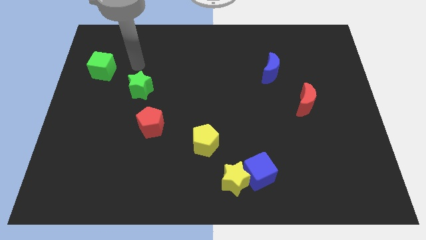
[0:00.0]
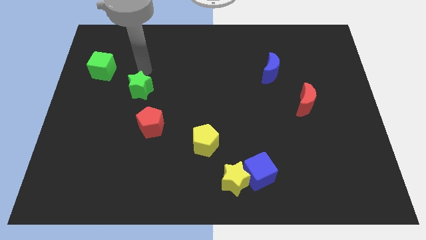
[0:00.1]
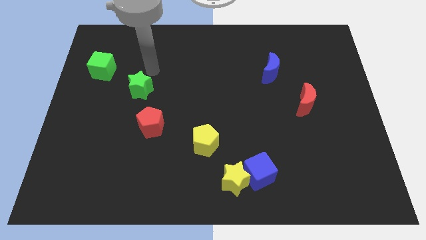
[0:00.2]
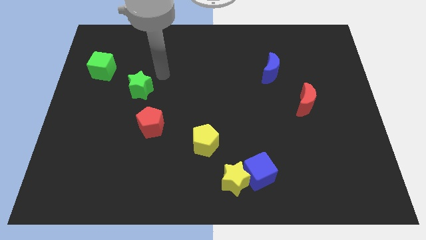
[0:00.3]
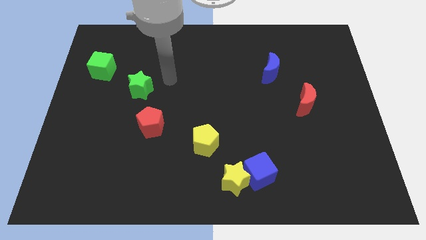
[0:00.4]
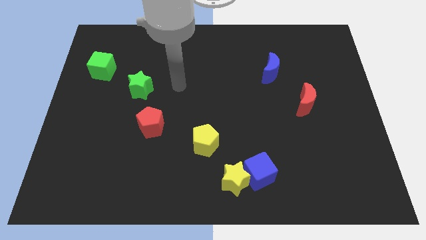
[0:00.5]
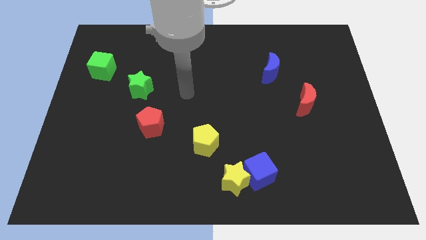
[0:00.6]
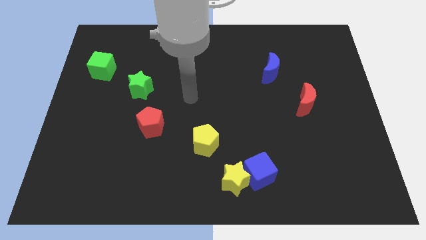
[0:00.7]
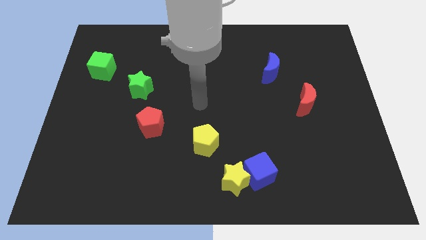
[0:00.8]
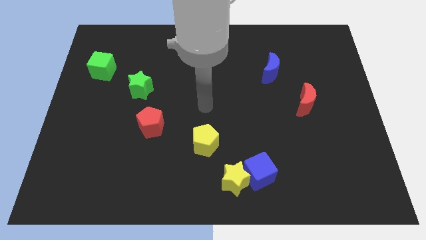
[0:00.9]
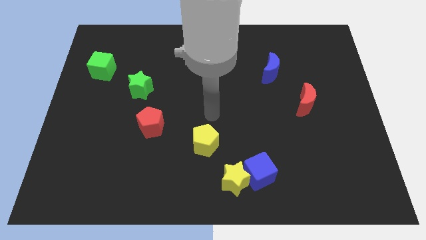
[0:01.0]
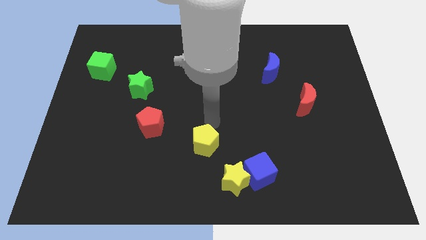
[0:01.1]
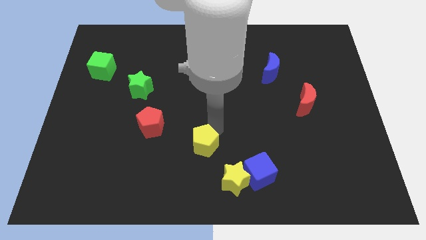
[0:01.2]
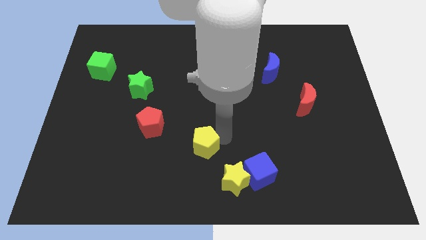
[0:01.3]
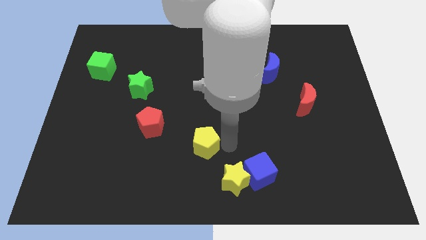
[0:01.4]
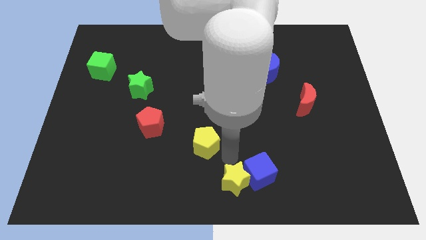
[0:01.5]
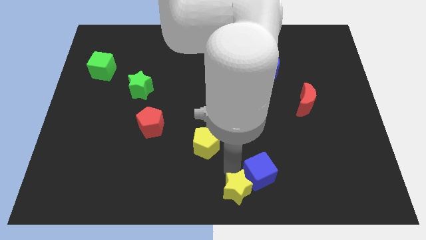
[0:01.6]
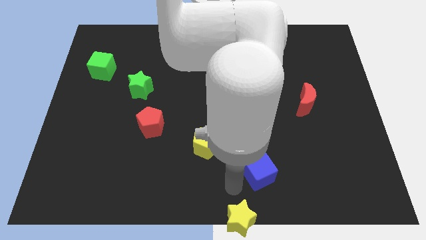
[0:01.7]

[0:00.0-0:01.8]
pull the blue cube apart from the yellow star

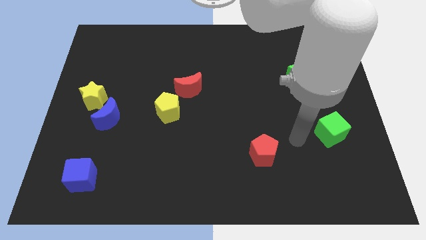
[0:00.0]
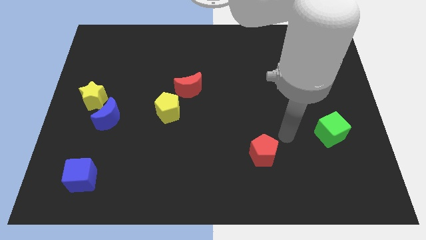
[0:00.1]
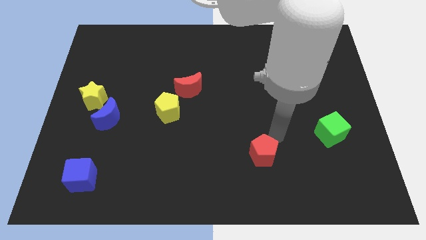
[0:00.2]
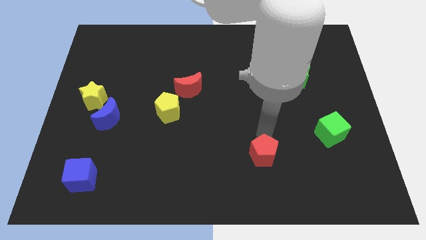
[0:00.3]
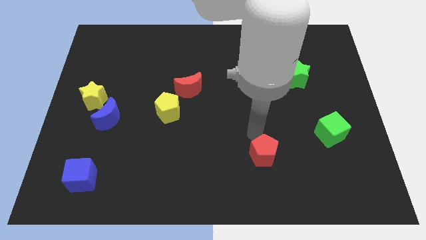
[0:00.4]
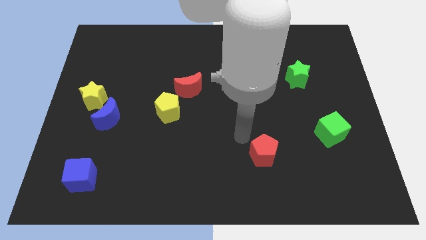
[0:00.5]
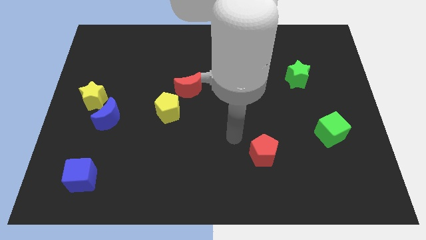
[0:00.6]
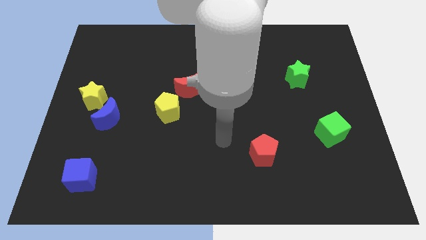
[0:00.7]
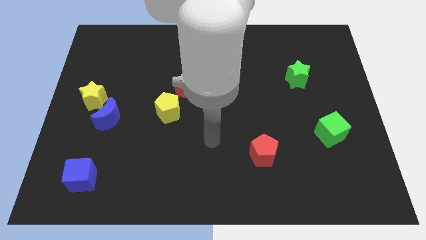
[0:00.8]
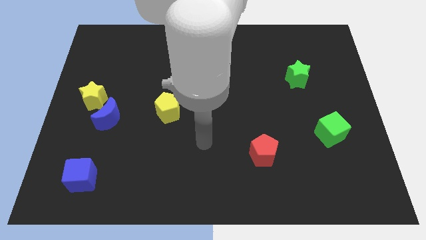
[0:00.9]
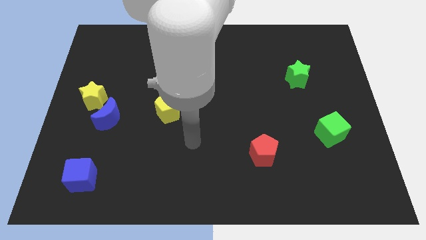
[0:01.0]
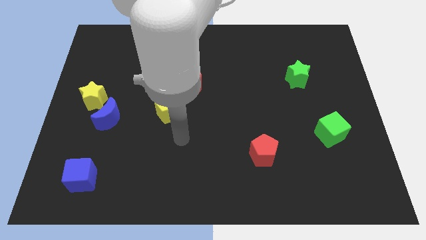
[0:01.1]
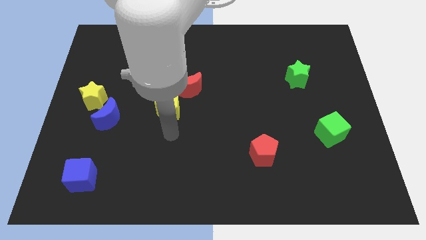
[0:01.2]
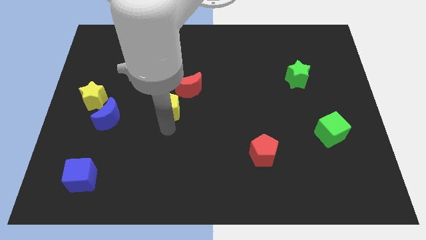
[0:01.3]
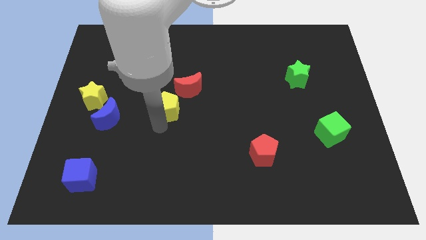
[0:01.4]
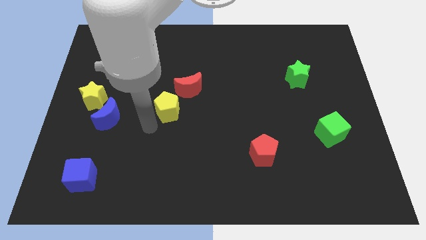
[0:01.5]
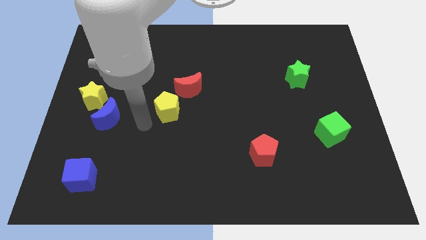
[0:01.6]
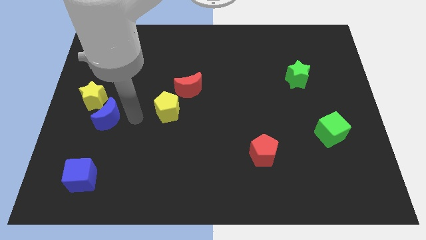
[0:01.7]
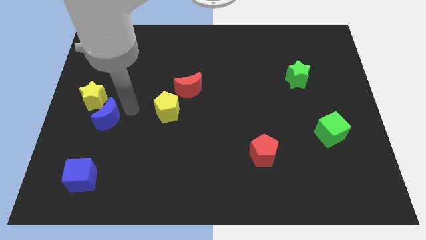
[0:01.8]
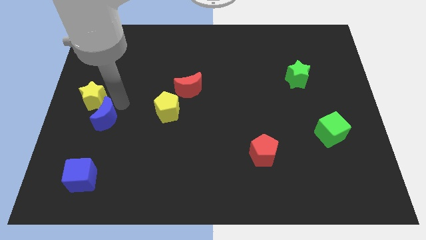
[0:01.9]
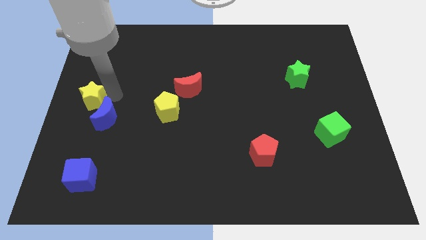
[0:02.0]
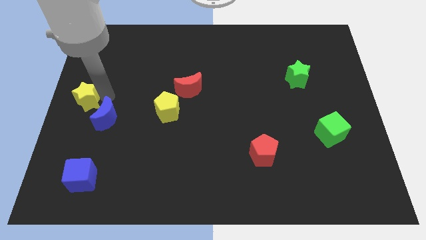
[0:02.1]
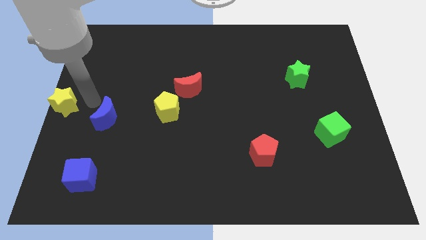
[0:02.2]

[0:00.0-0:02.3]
separate the blue moon from the yellow star

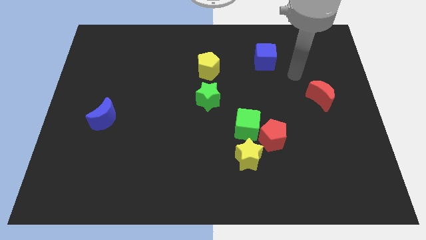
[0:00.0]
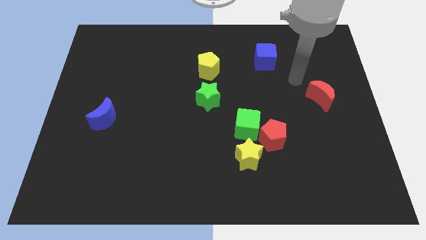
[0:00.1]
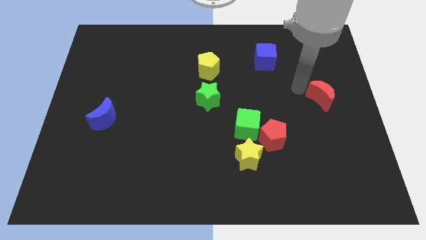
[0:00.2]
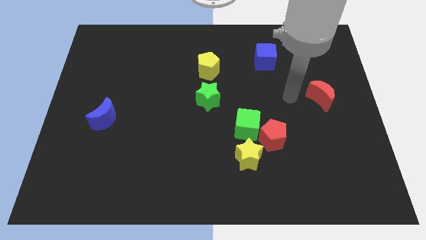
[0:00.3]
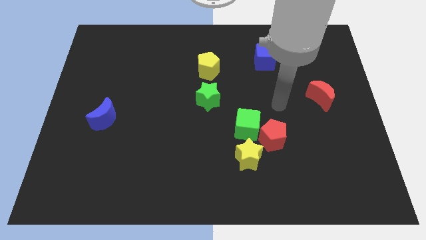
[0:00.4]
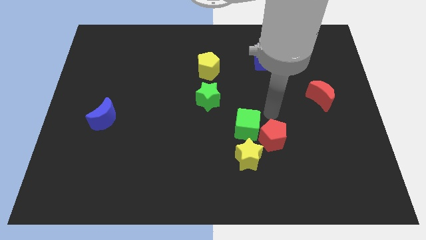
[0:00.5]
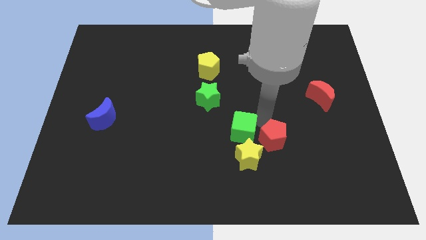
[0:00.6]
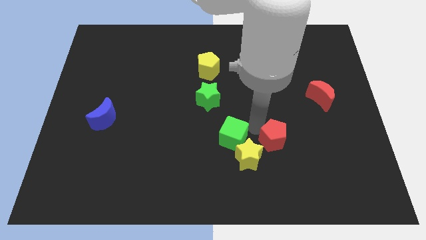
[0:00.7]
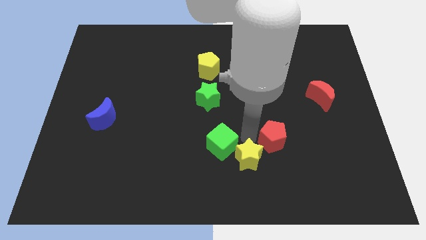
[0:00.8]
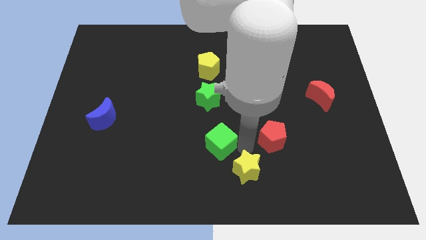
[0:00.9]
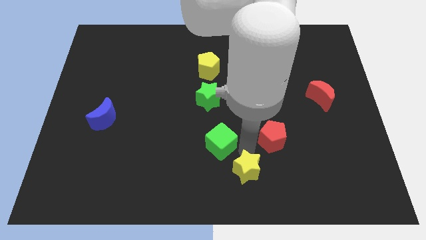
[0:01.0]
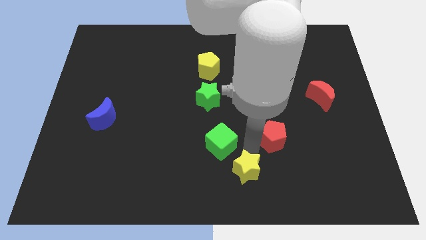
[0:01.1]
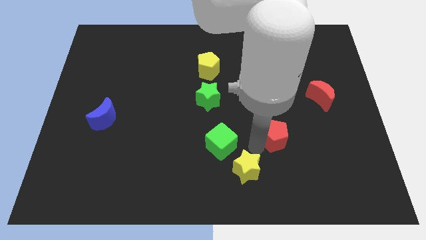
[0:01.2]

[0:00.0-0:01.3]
move the red pentagon away from the green cube and yellow star

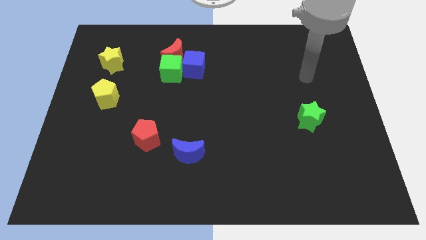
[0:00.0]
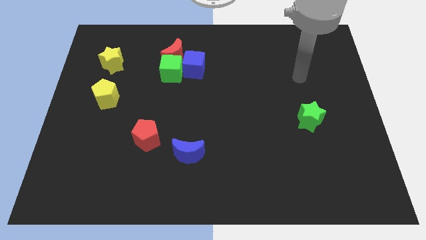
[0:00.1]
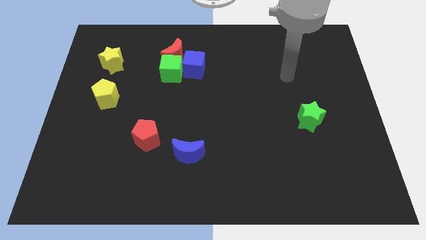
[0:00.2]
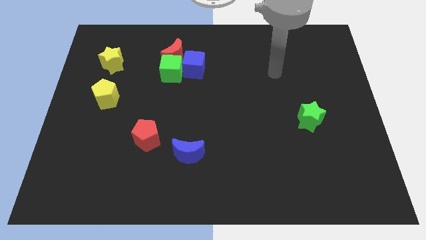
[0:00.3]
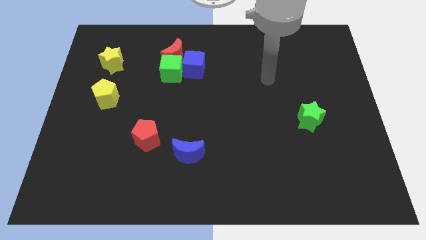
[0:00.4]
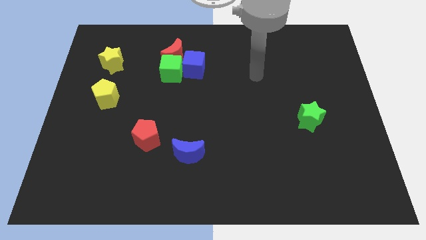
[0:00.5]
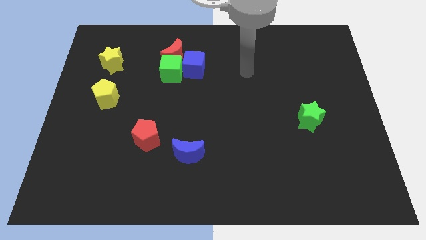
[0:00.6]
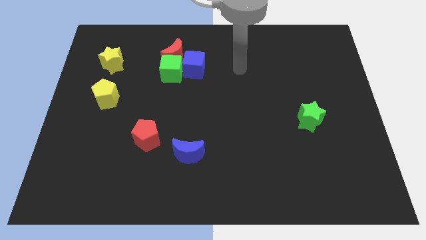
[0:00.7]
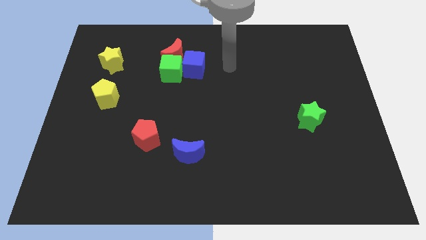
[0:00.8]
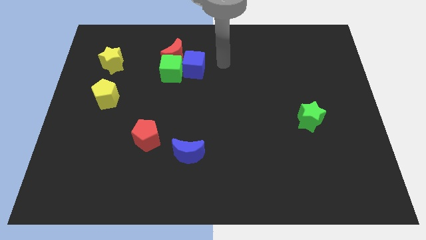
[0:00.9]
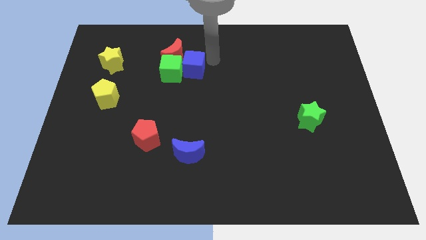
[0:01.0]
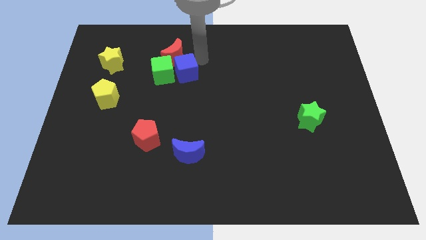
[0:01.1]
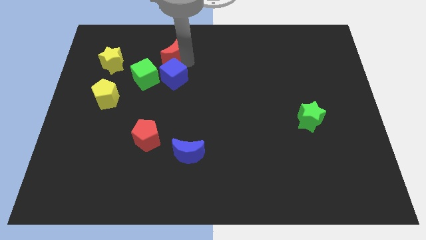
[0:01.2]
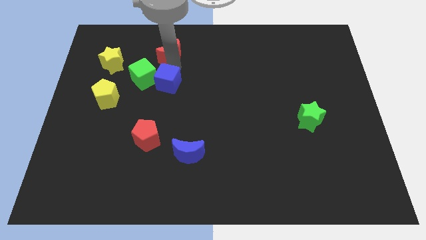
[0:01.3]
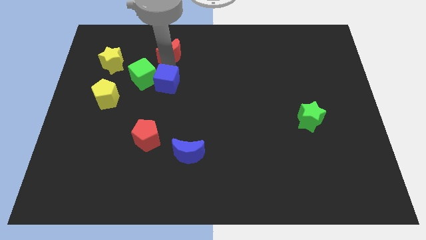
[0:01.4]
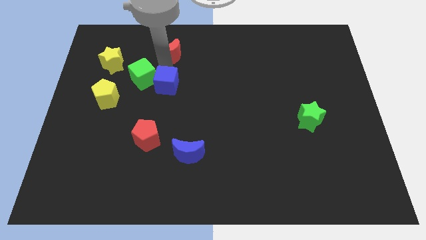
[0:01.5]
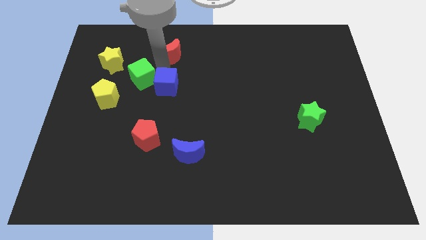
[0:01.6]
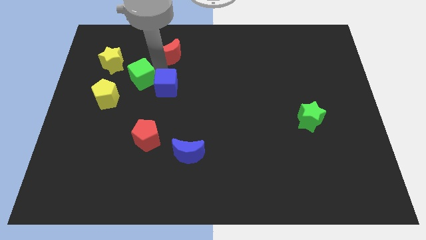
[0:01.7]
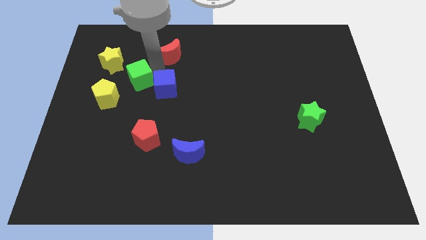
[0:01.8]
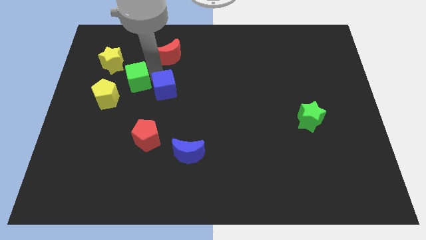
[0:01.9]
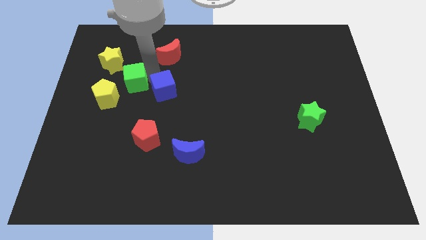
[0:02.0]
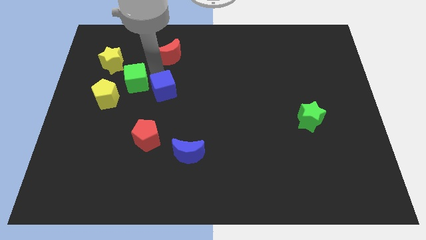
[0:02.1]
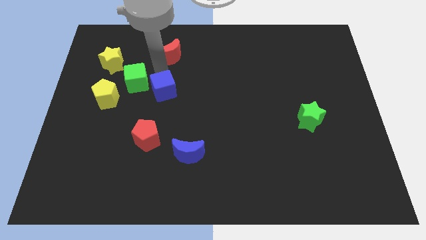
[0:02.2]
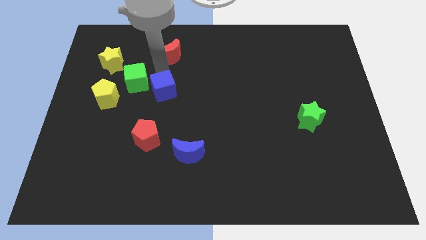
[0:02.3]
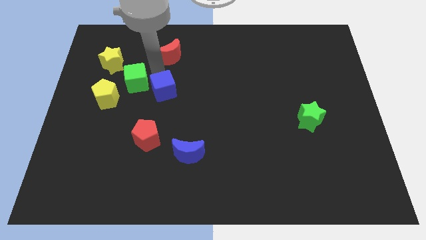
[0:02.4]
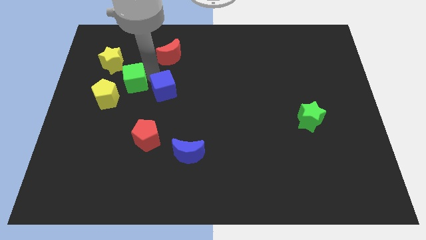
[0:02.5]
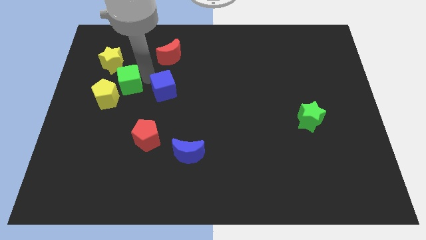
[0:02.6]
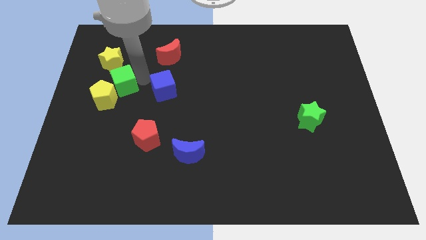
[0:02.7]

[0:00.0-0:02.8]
move the green cube away from the red moon and blue cube

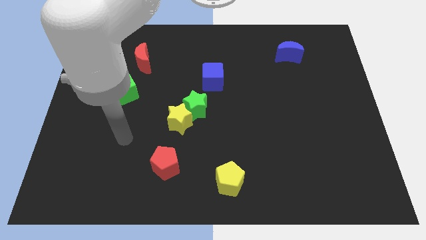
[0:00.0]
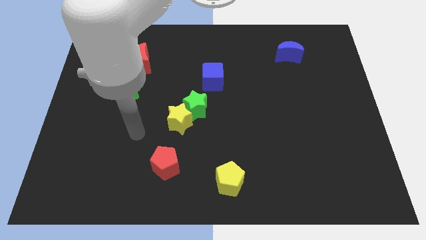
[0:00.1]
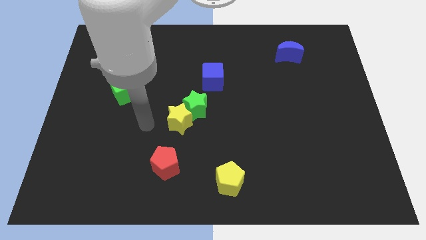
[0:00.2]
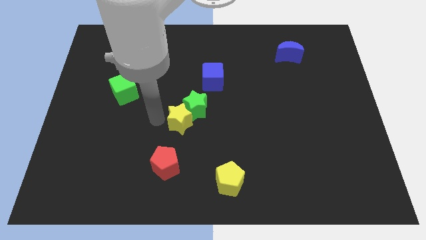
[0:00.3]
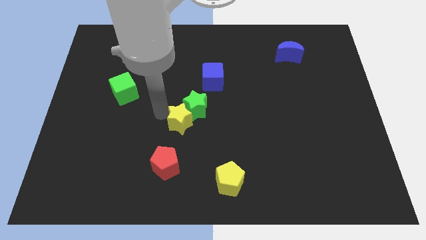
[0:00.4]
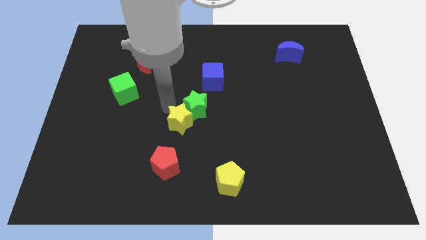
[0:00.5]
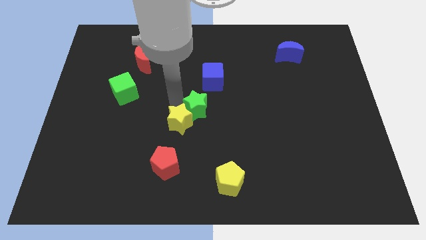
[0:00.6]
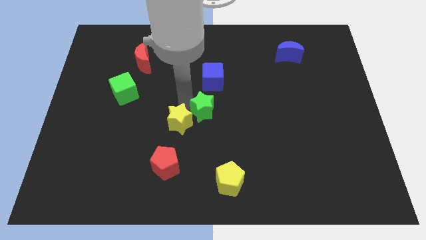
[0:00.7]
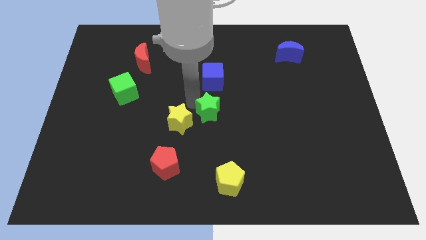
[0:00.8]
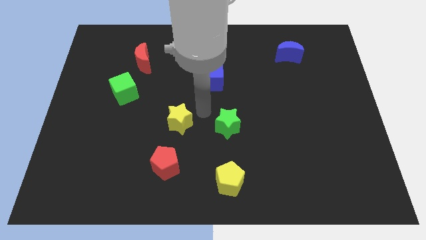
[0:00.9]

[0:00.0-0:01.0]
pull the yellow star apart from the green star
